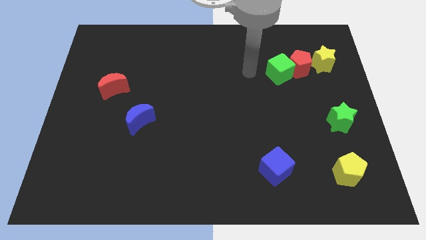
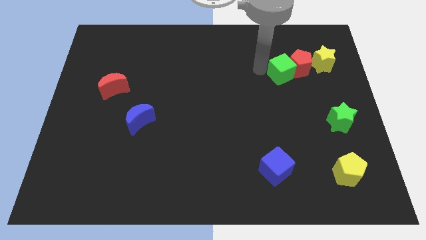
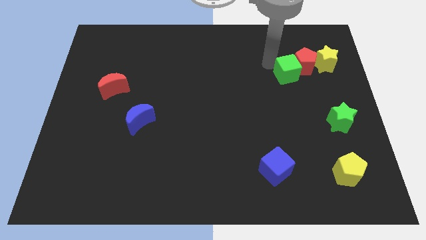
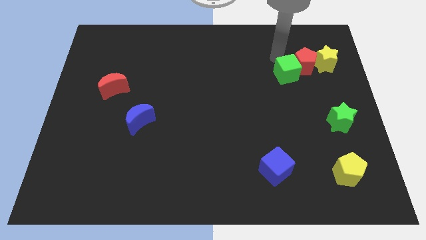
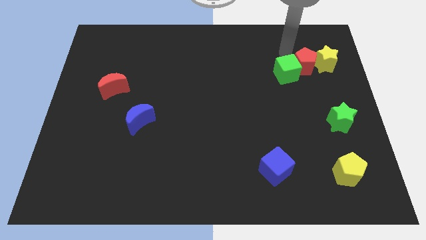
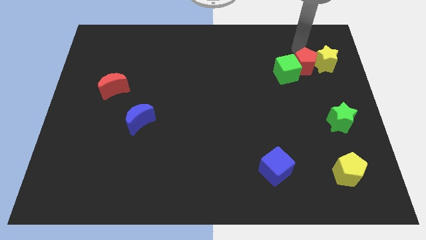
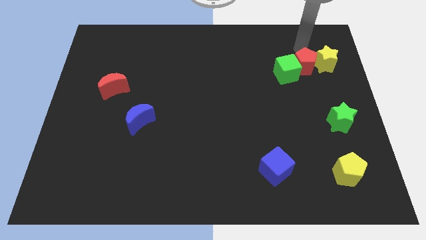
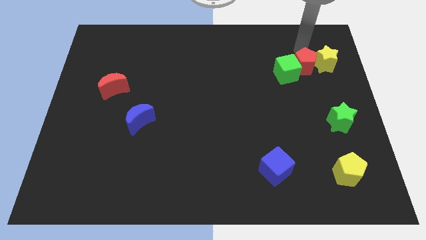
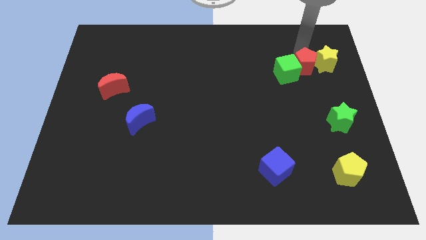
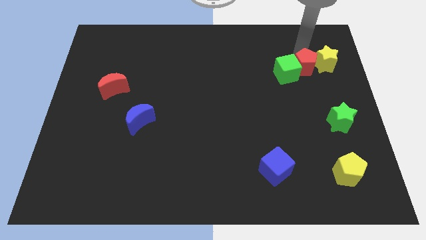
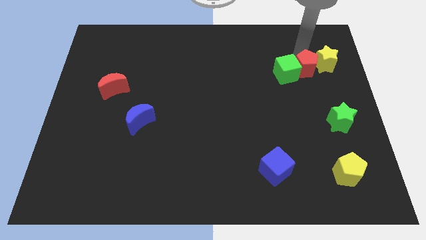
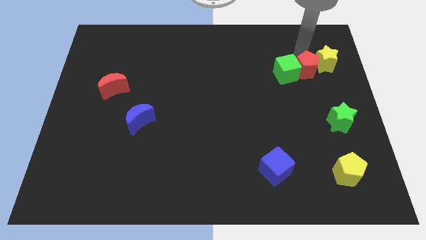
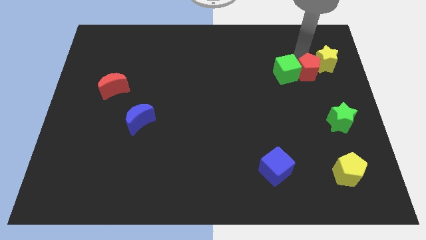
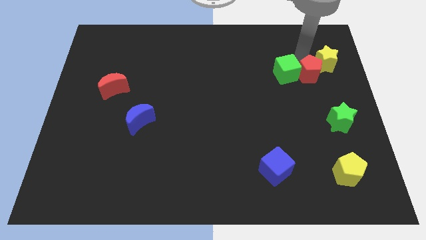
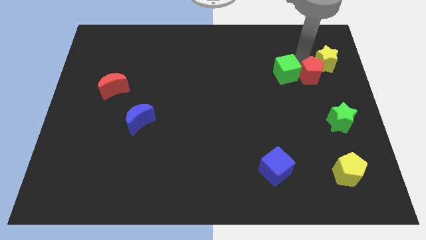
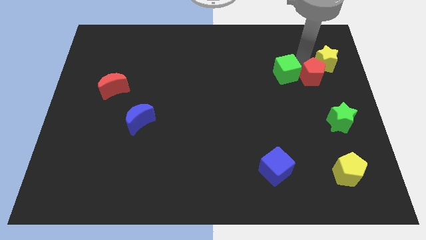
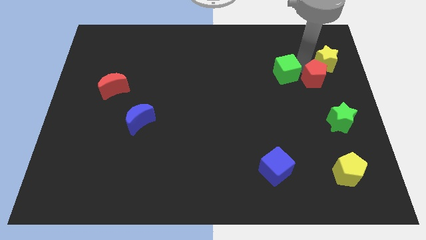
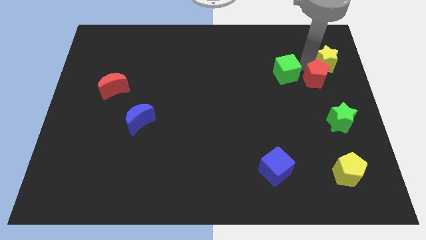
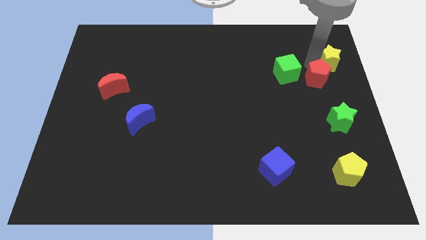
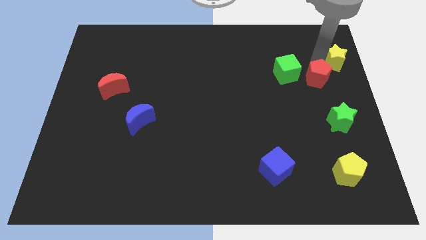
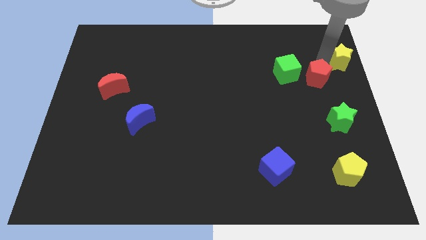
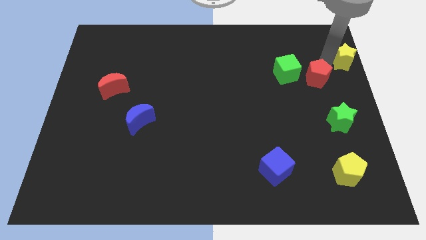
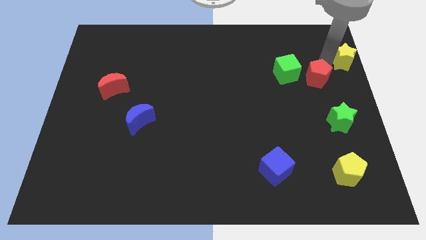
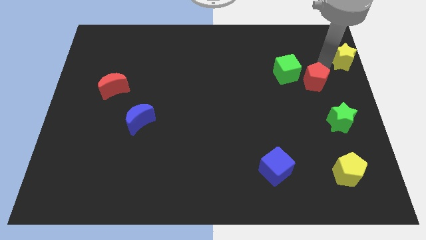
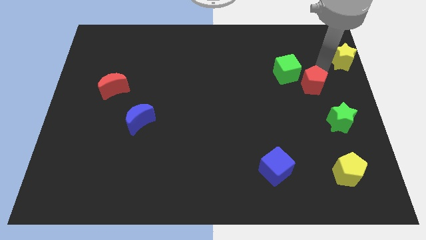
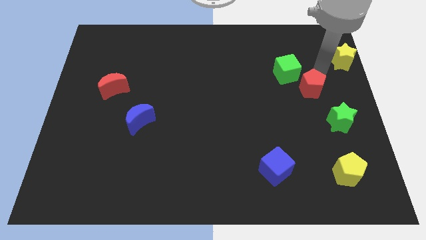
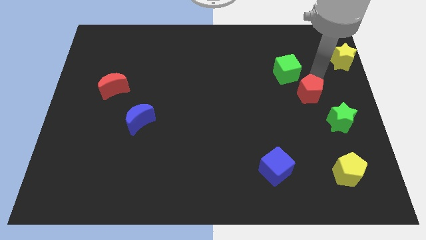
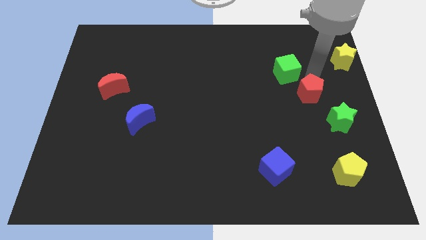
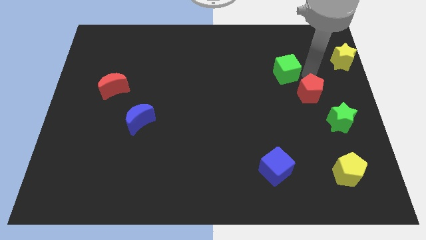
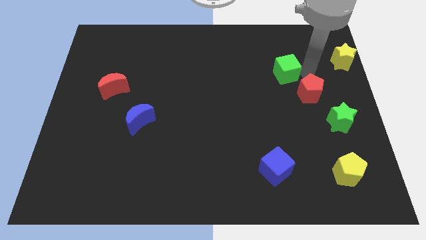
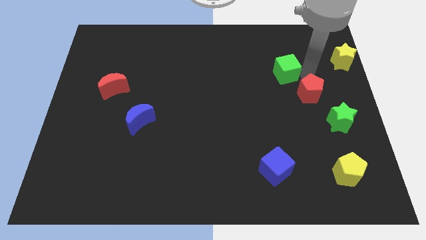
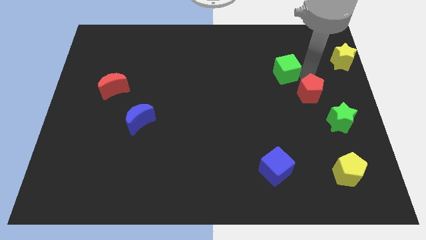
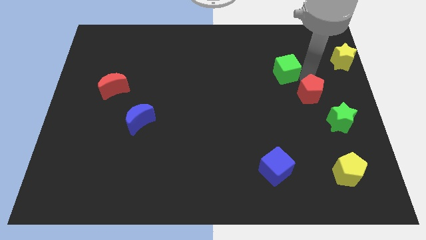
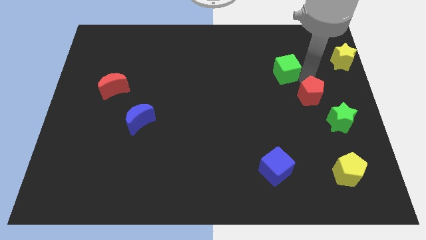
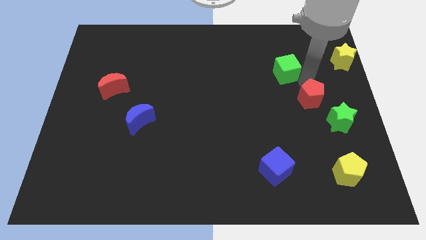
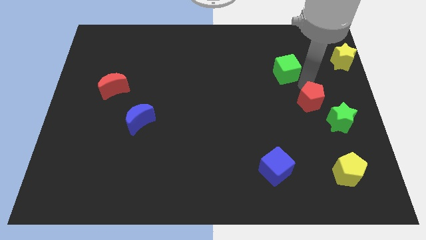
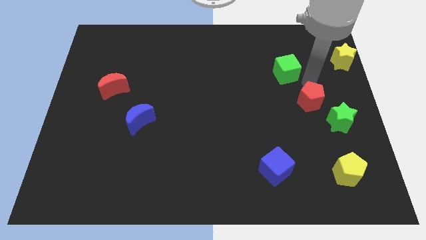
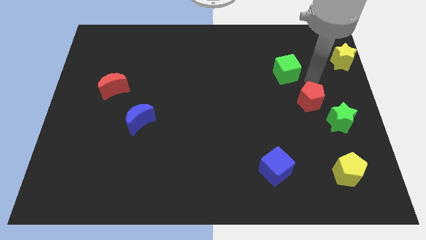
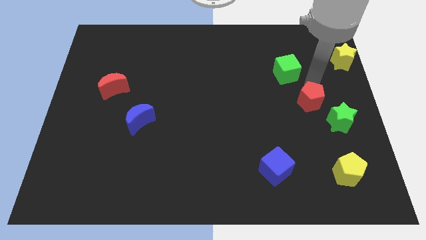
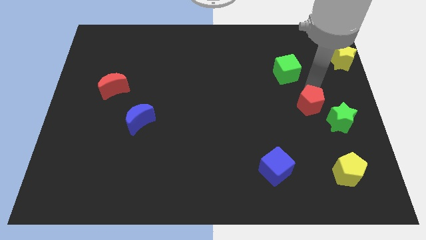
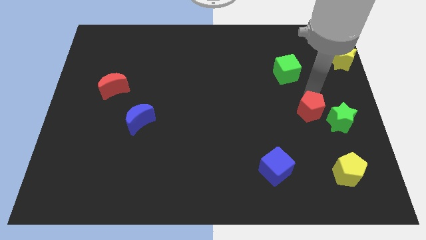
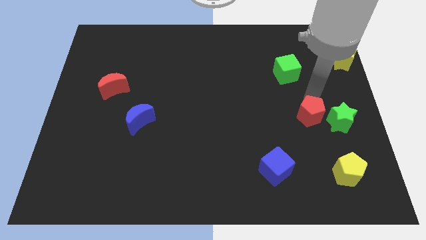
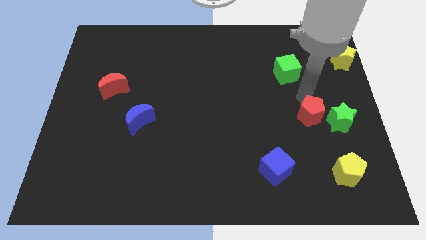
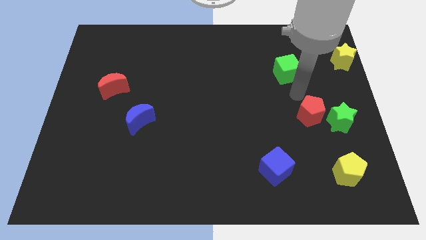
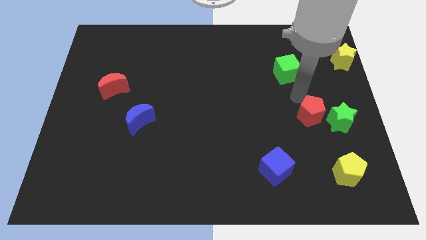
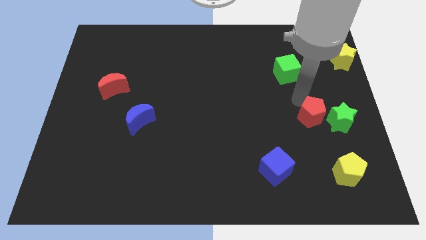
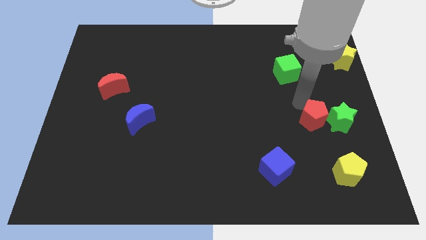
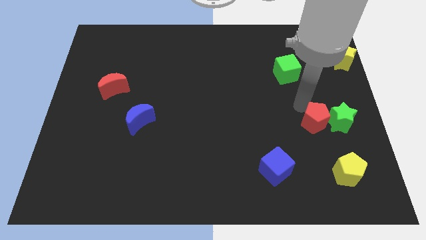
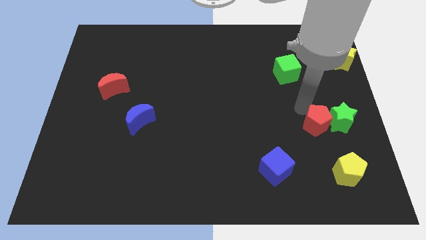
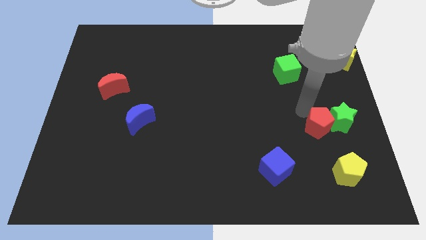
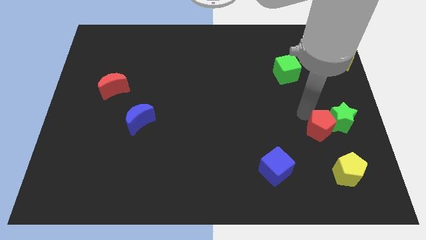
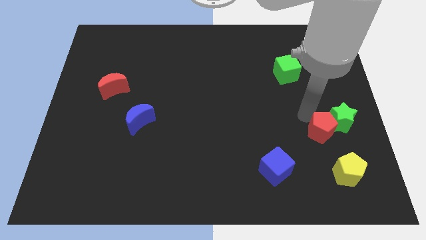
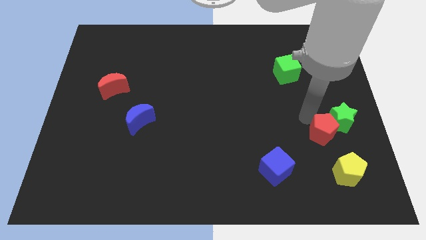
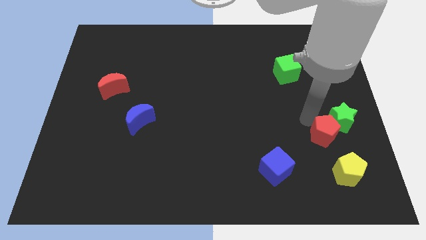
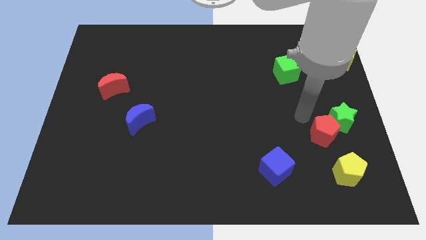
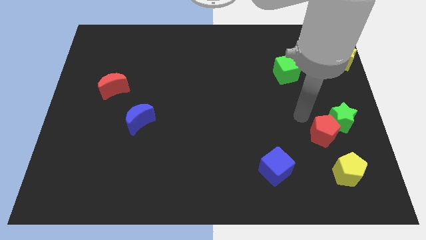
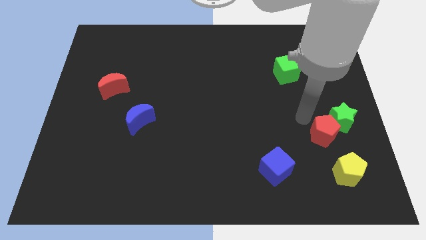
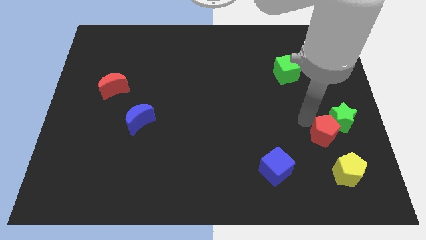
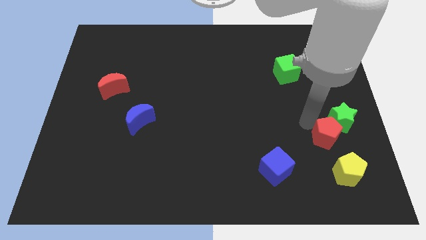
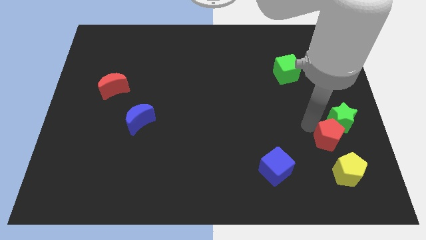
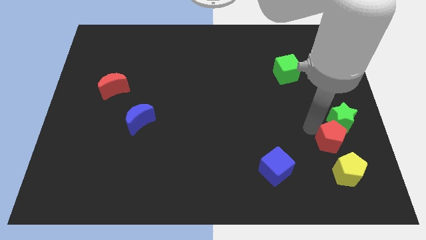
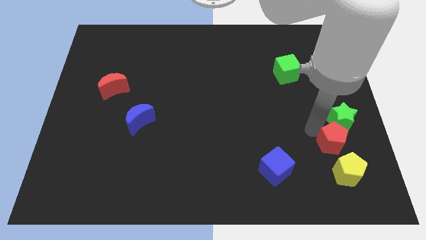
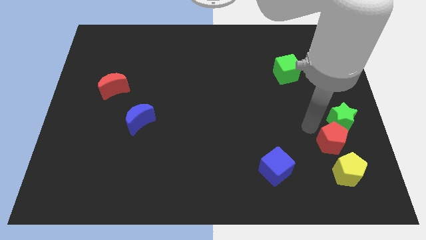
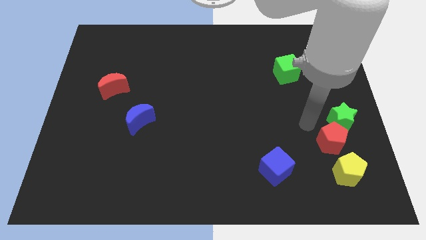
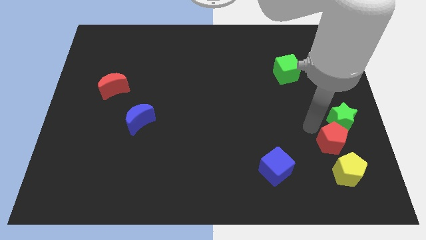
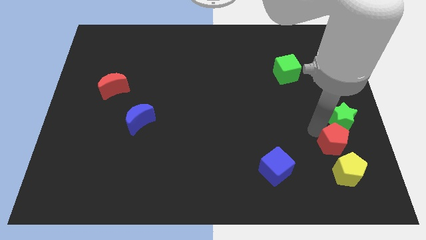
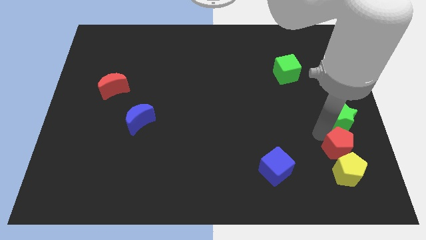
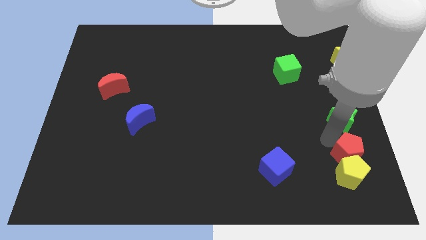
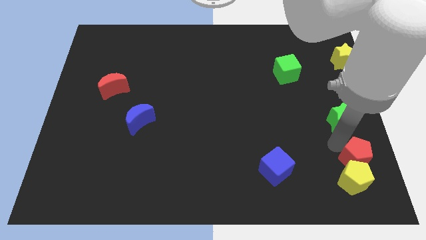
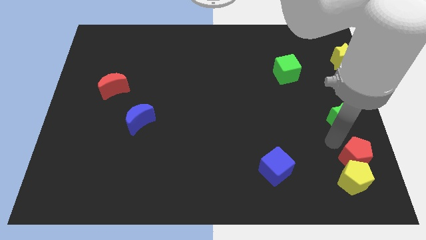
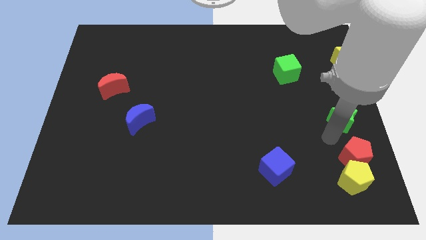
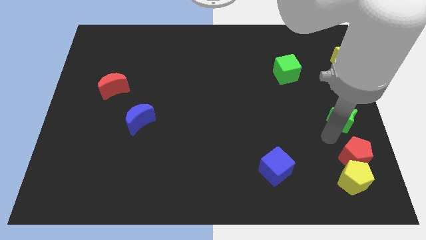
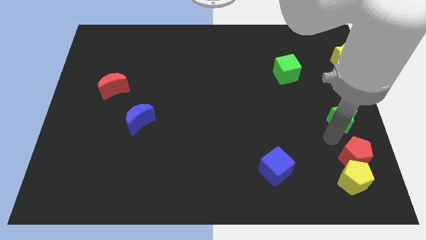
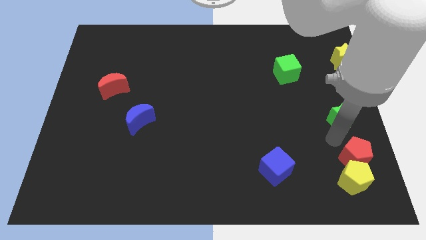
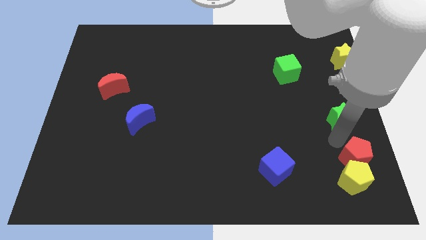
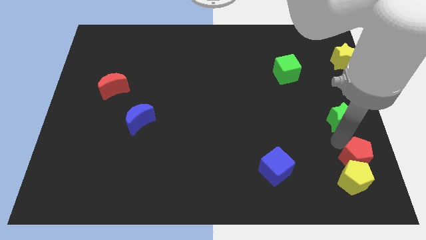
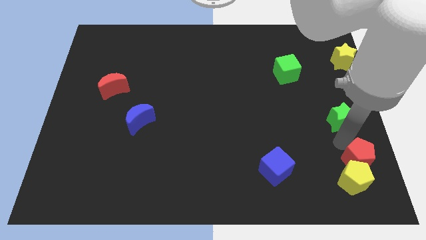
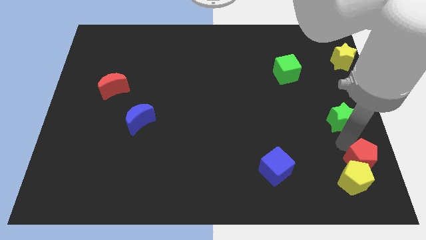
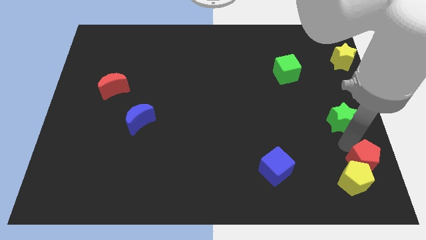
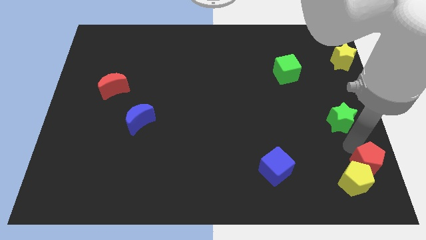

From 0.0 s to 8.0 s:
push the red pentagon to the bottom right corner
